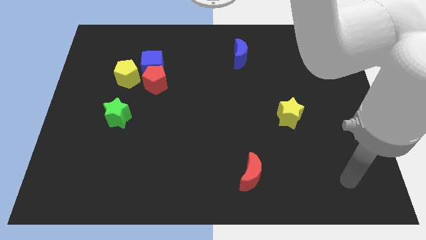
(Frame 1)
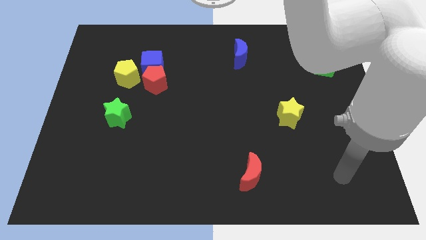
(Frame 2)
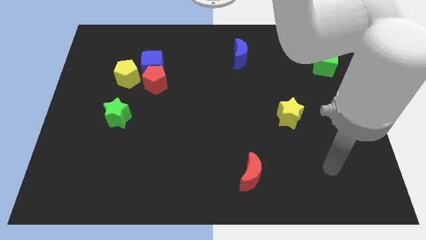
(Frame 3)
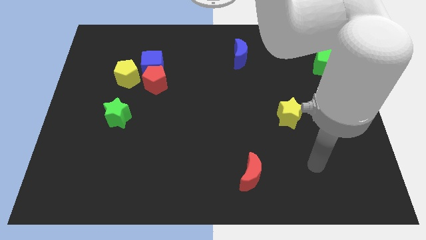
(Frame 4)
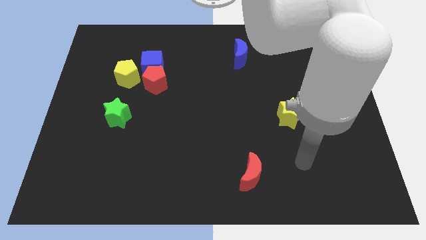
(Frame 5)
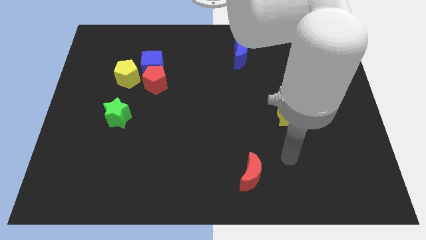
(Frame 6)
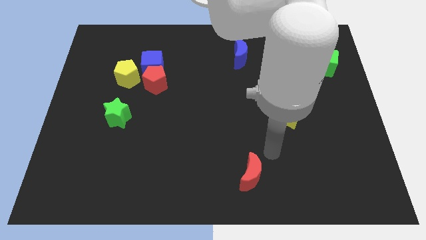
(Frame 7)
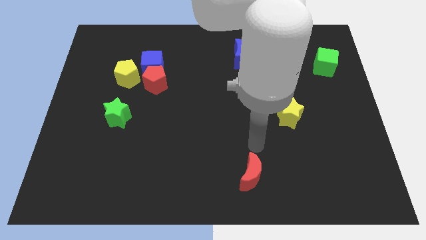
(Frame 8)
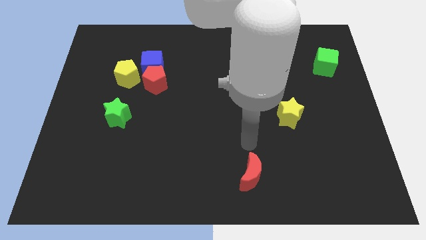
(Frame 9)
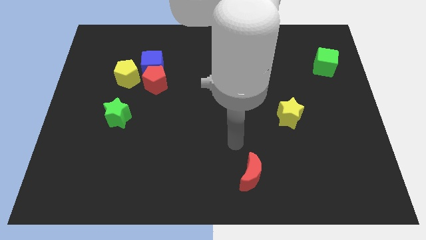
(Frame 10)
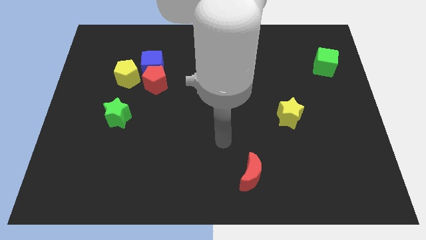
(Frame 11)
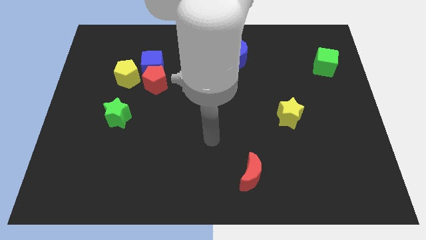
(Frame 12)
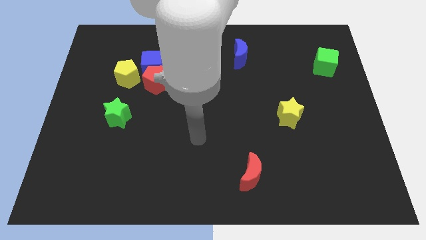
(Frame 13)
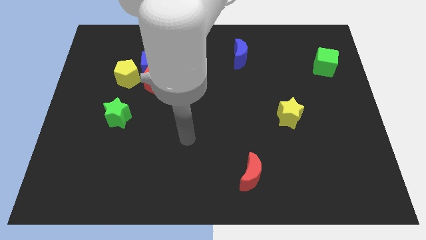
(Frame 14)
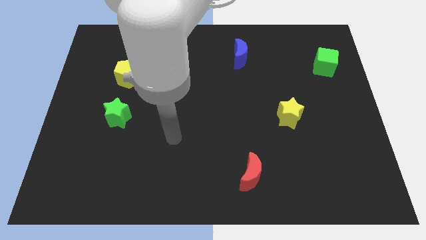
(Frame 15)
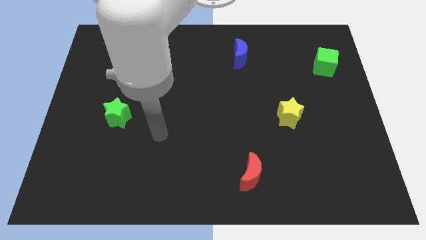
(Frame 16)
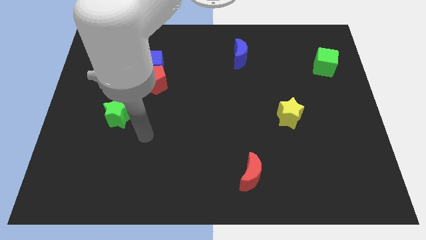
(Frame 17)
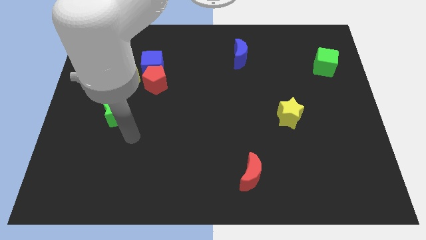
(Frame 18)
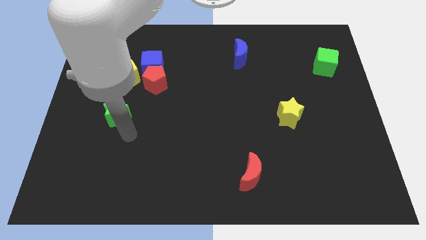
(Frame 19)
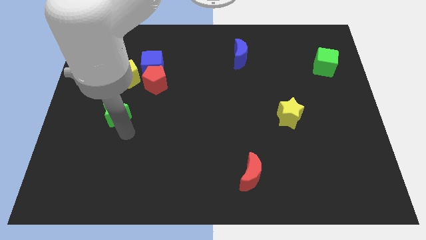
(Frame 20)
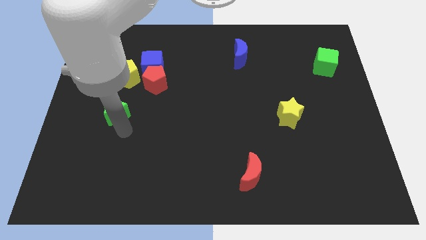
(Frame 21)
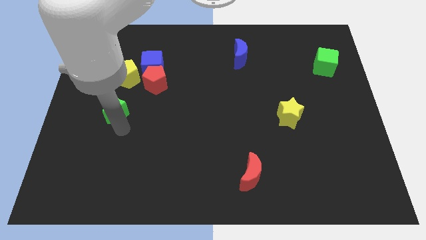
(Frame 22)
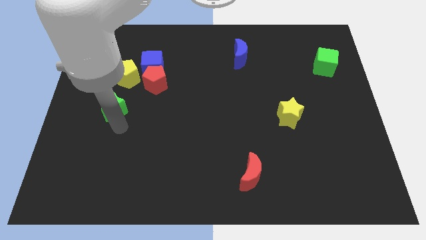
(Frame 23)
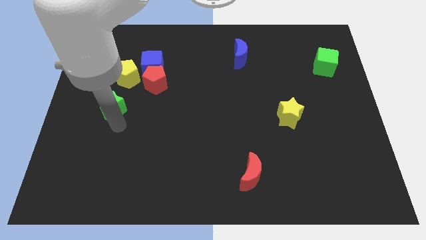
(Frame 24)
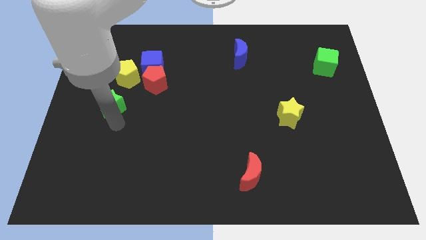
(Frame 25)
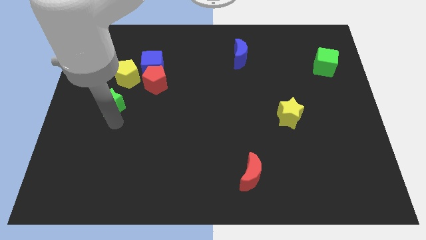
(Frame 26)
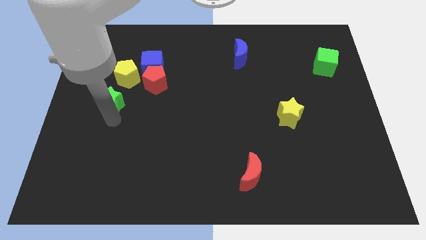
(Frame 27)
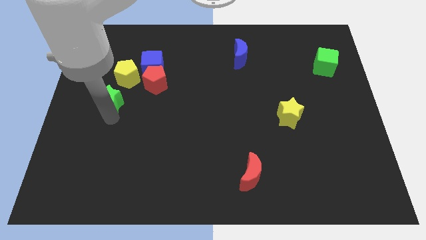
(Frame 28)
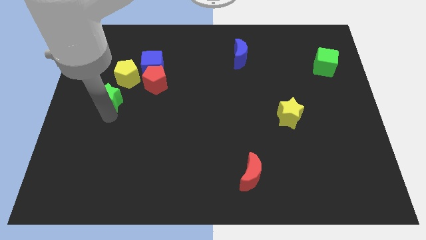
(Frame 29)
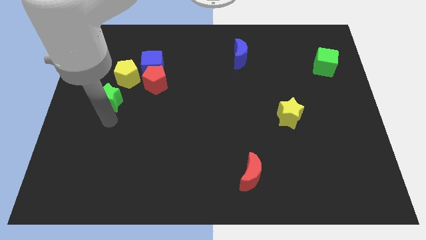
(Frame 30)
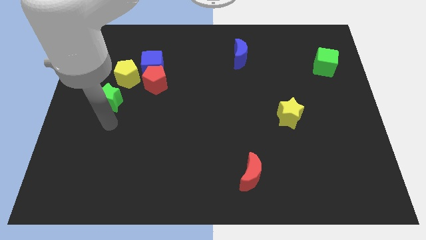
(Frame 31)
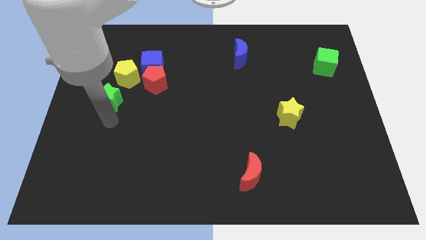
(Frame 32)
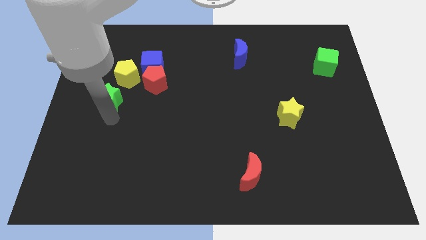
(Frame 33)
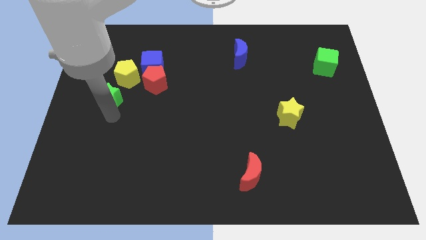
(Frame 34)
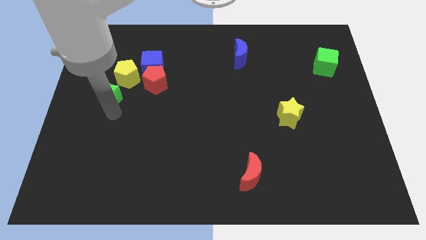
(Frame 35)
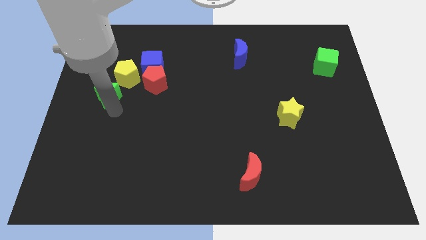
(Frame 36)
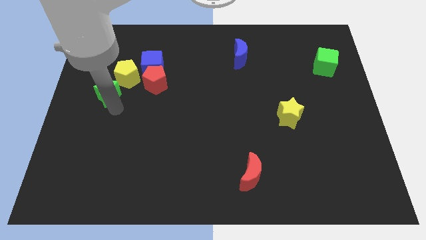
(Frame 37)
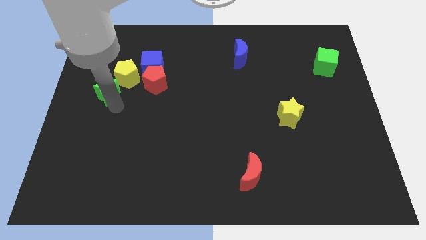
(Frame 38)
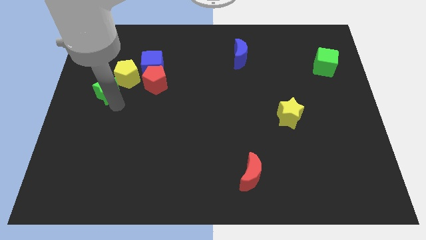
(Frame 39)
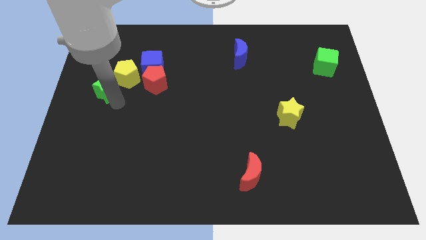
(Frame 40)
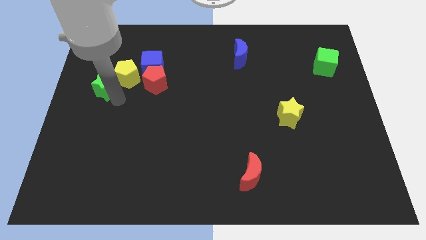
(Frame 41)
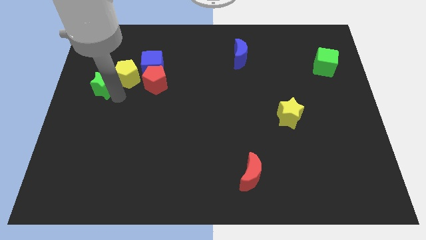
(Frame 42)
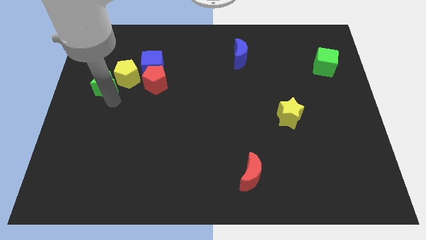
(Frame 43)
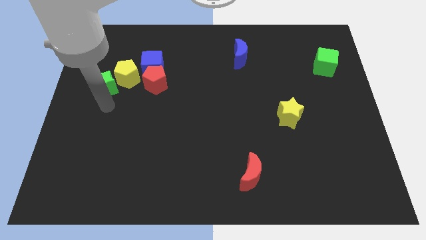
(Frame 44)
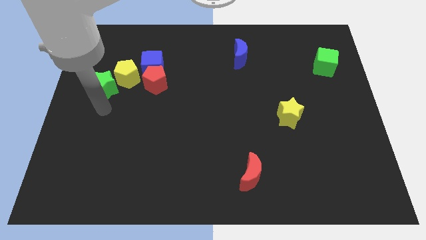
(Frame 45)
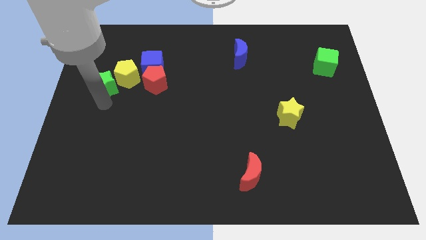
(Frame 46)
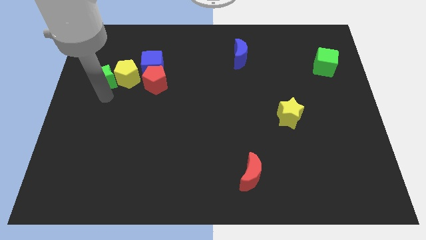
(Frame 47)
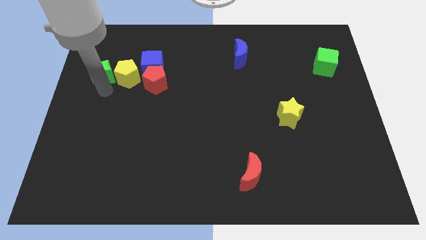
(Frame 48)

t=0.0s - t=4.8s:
move the green star to the top left of the yellow pentagon

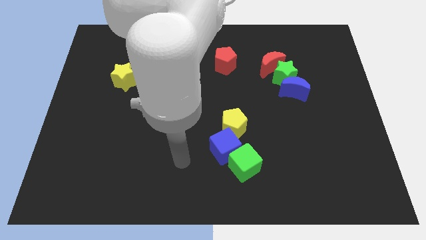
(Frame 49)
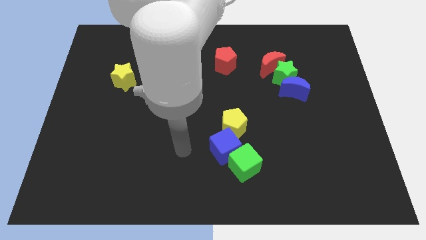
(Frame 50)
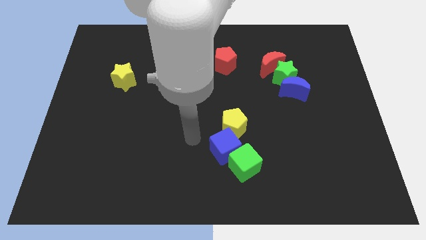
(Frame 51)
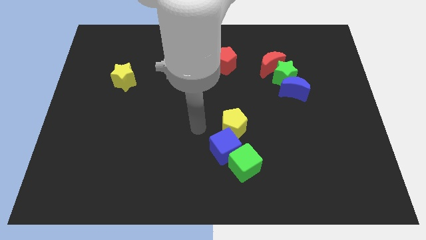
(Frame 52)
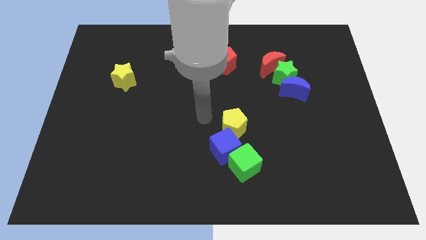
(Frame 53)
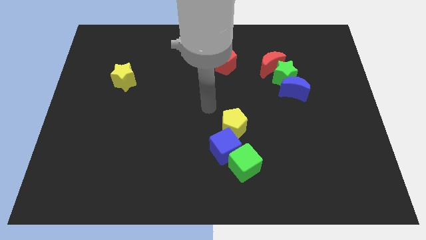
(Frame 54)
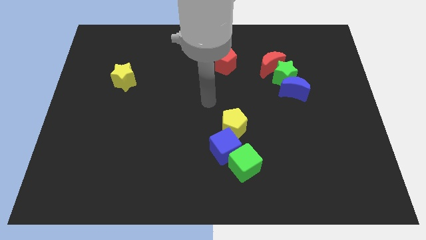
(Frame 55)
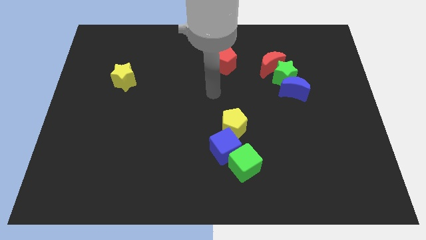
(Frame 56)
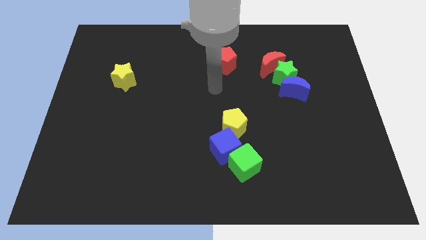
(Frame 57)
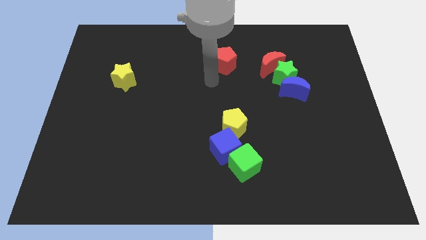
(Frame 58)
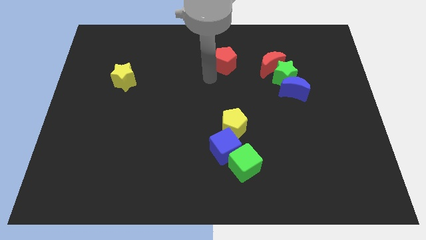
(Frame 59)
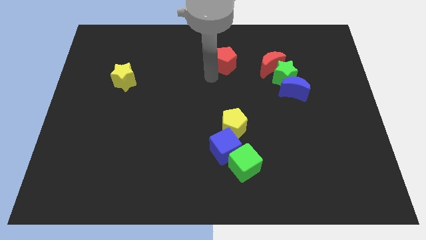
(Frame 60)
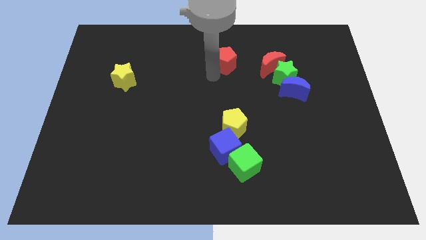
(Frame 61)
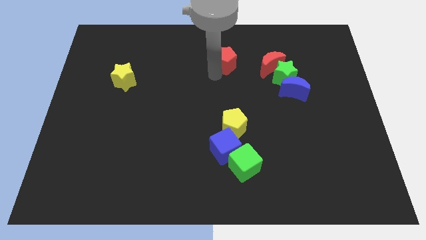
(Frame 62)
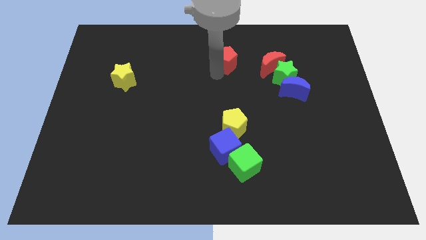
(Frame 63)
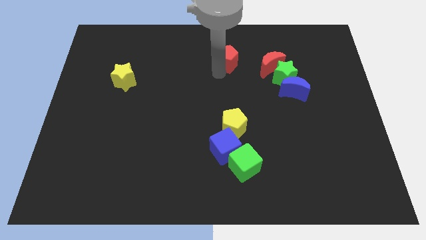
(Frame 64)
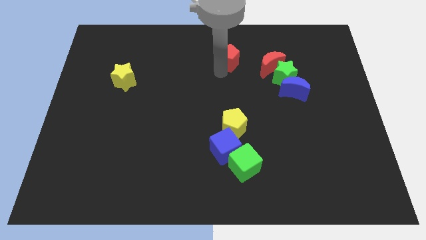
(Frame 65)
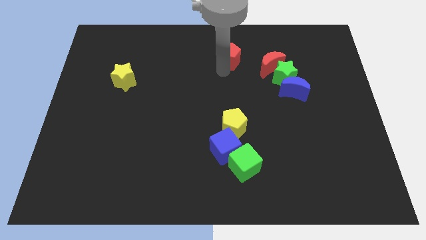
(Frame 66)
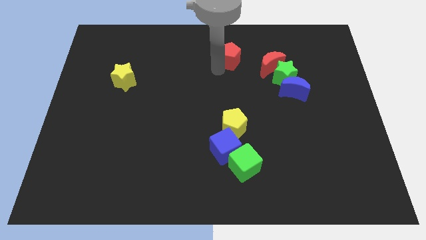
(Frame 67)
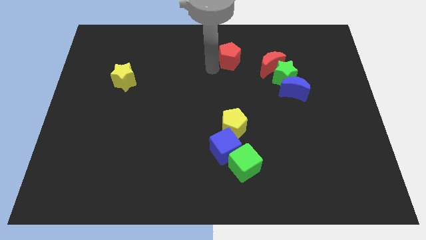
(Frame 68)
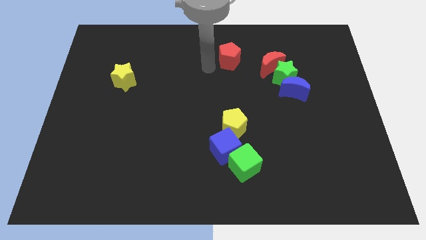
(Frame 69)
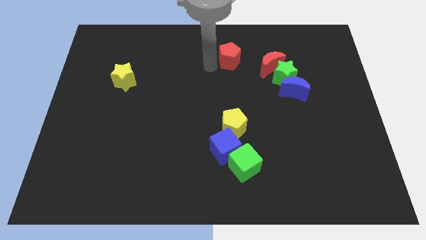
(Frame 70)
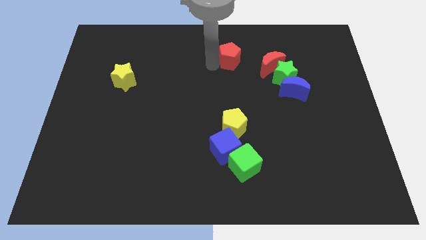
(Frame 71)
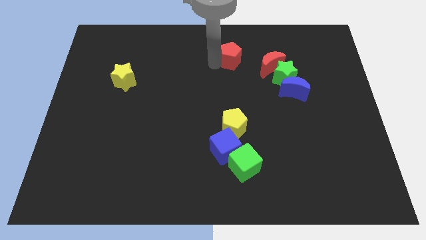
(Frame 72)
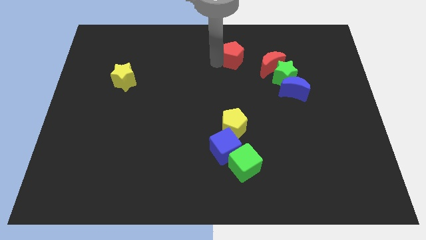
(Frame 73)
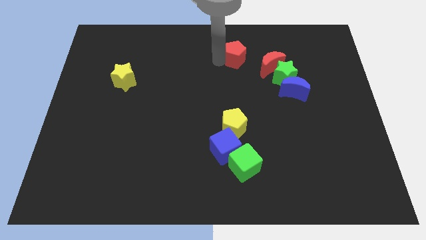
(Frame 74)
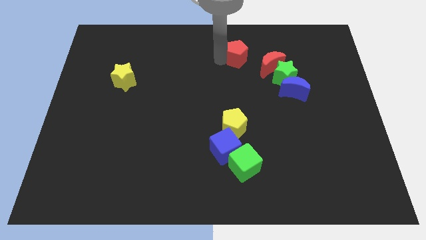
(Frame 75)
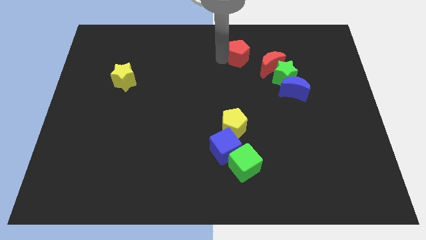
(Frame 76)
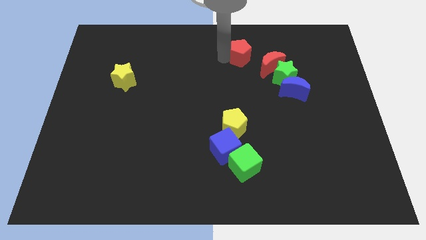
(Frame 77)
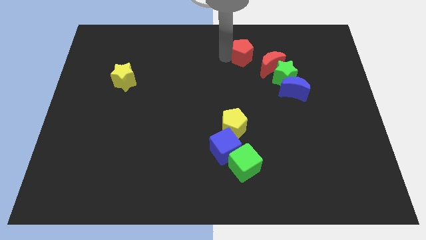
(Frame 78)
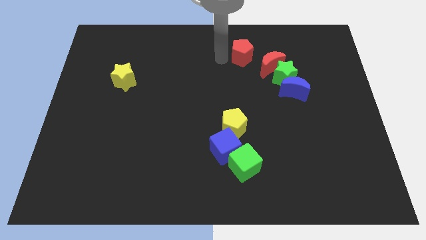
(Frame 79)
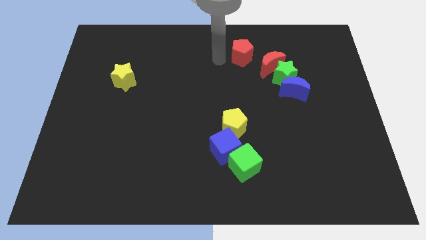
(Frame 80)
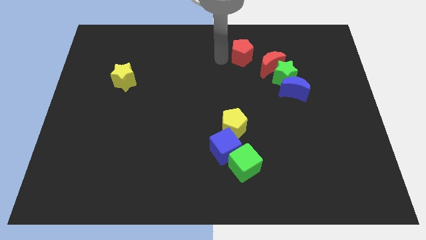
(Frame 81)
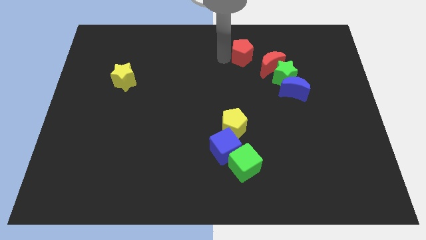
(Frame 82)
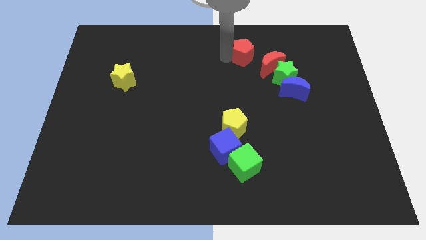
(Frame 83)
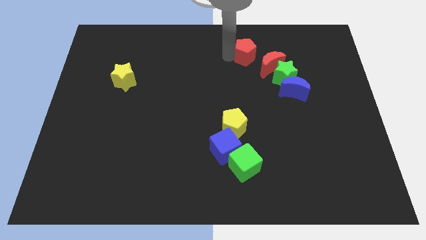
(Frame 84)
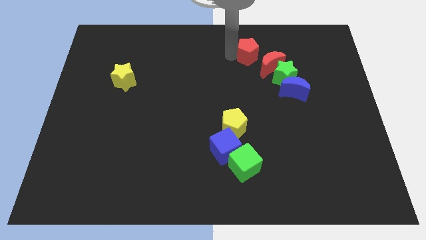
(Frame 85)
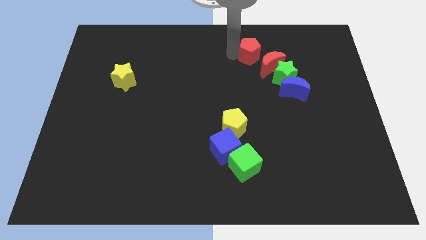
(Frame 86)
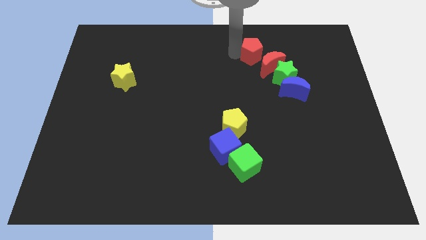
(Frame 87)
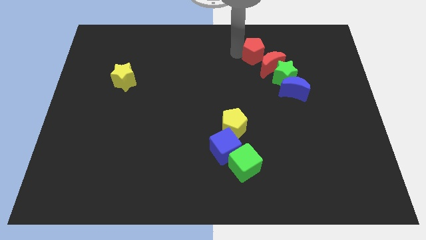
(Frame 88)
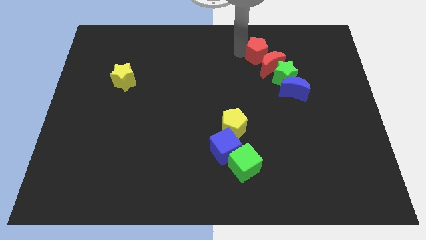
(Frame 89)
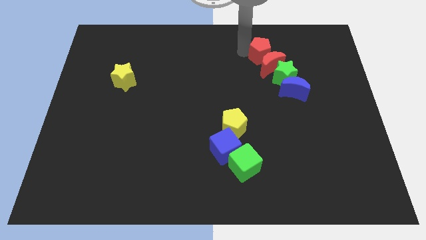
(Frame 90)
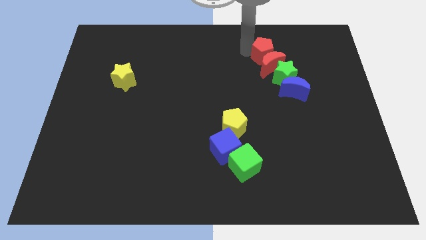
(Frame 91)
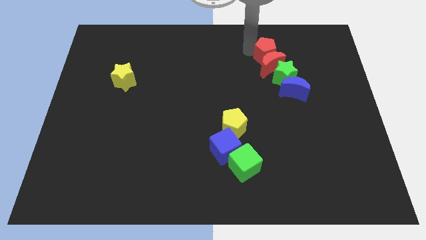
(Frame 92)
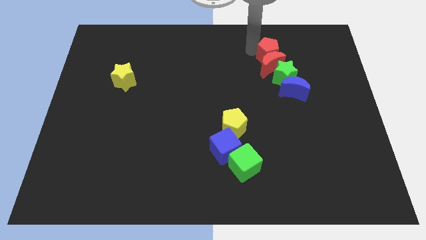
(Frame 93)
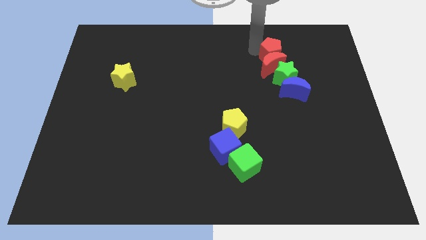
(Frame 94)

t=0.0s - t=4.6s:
slide the red pentagon above the blue moon
